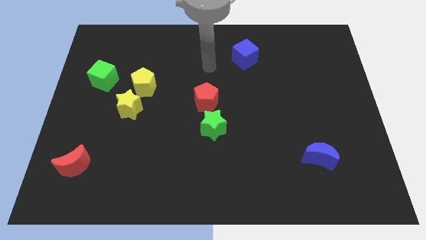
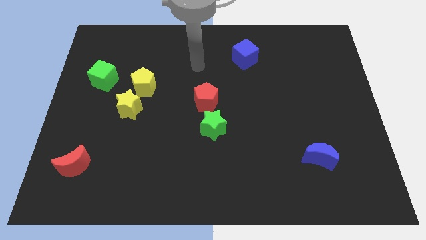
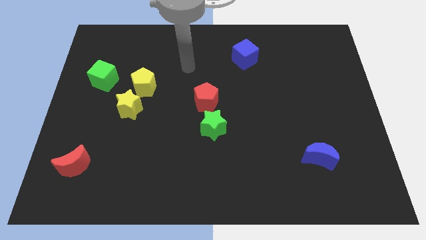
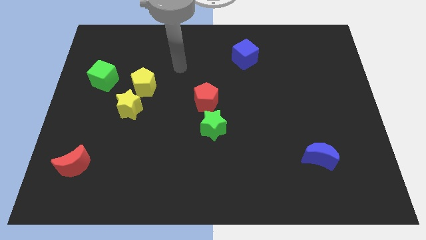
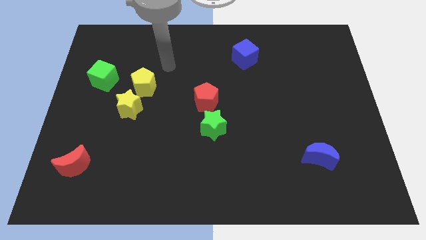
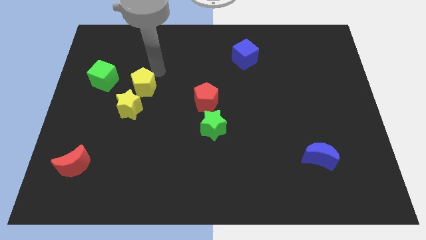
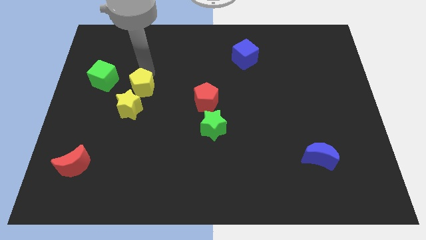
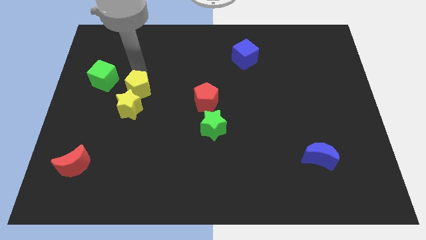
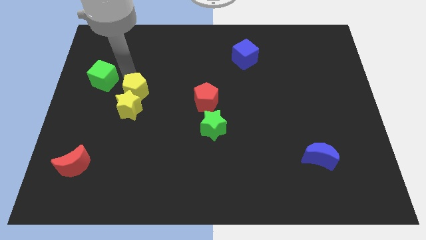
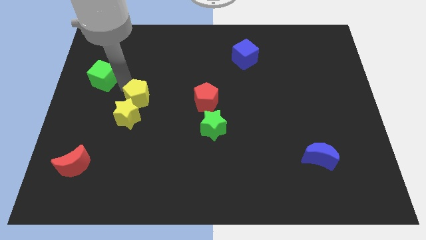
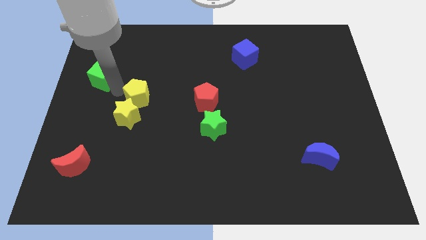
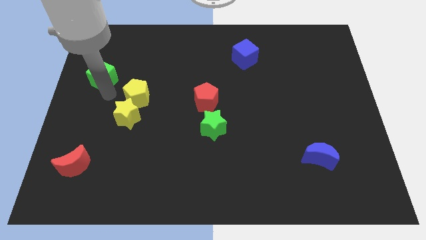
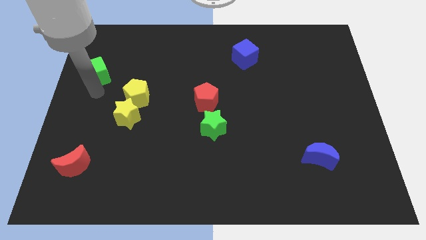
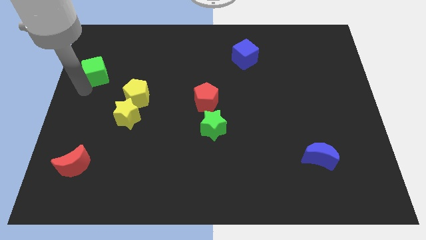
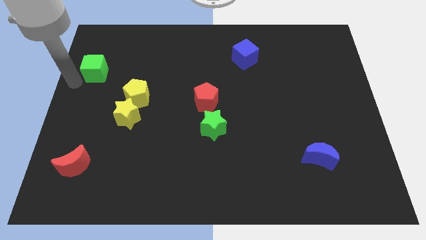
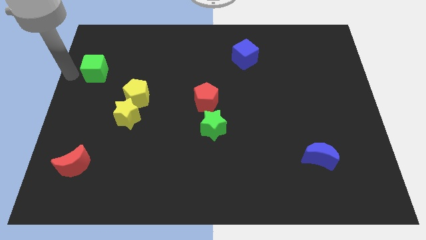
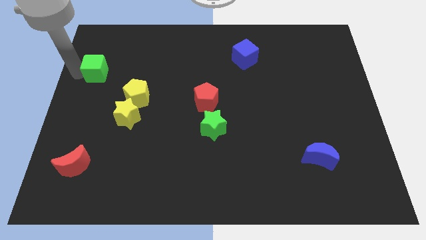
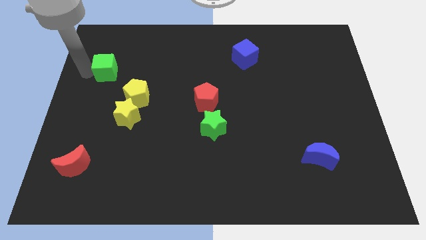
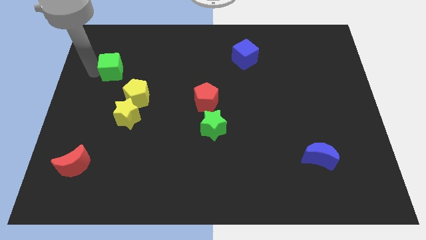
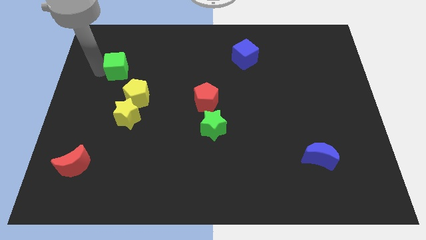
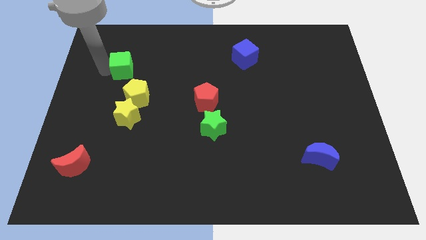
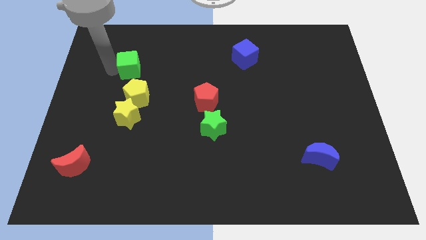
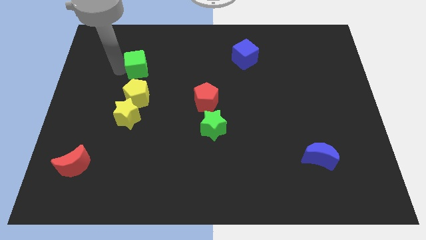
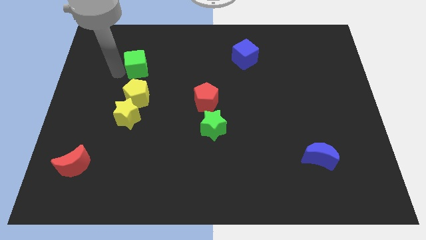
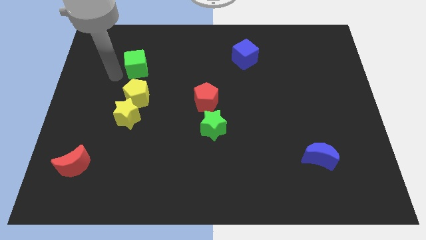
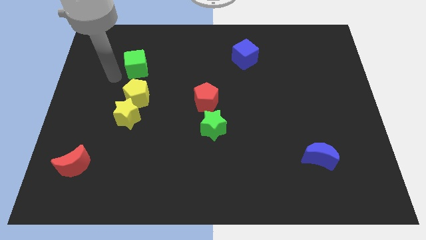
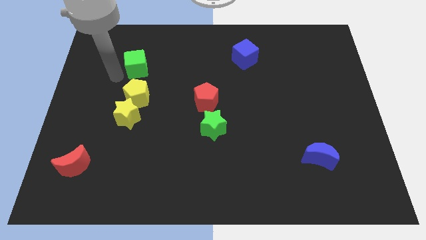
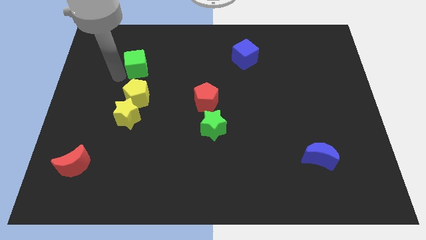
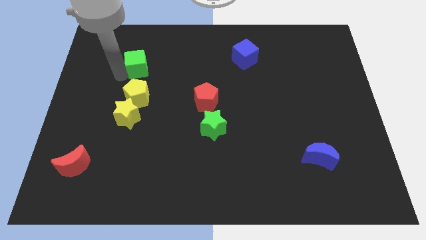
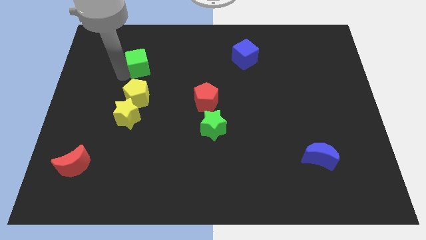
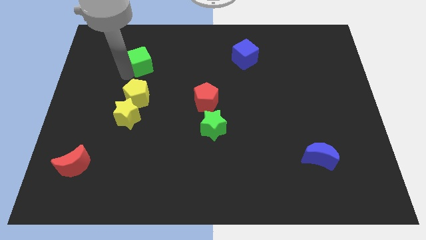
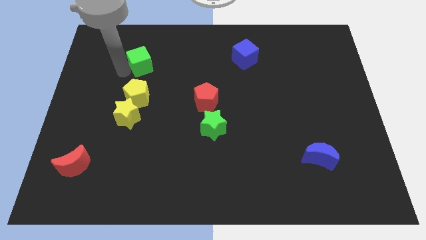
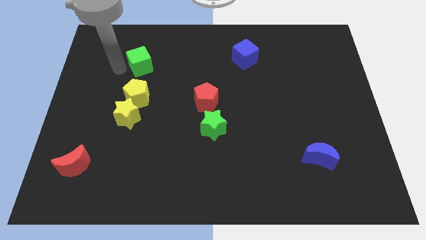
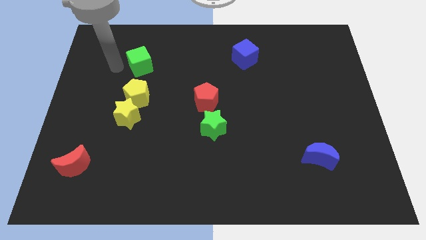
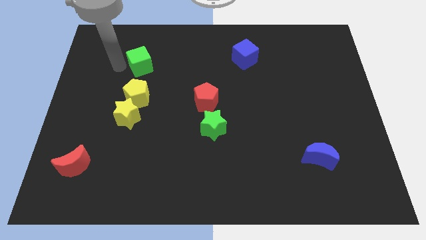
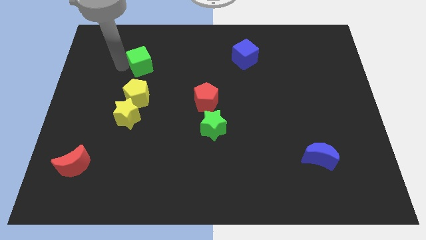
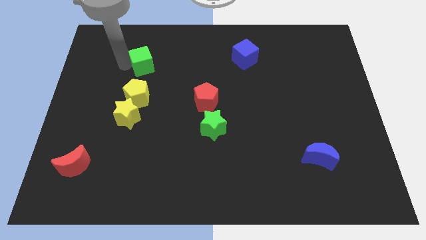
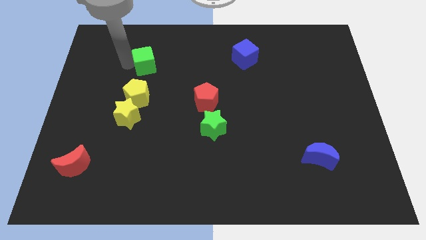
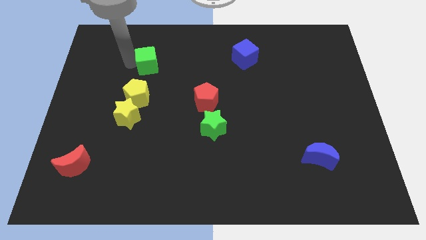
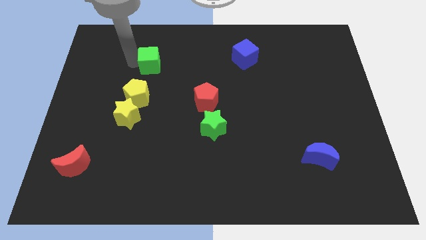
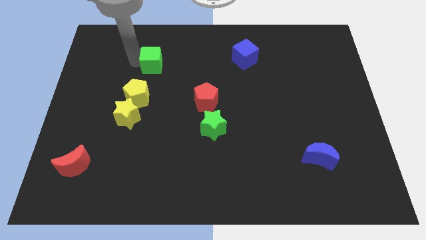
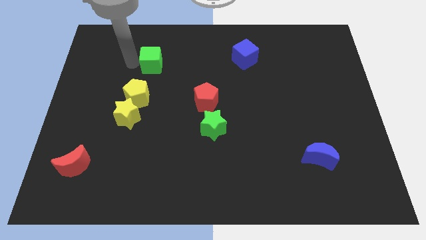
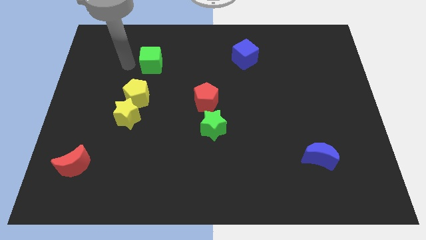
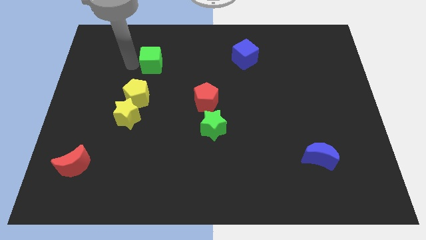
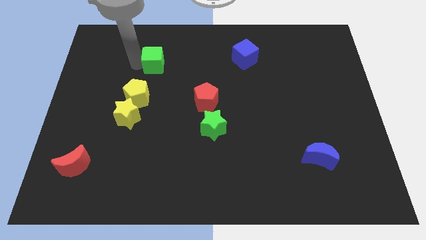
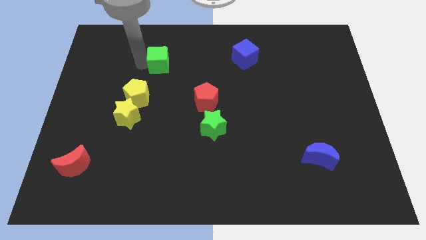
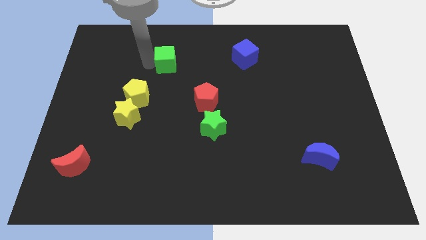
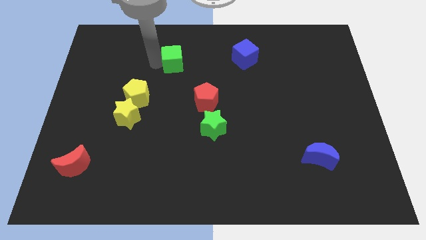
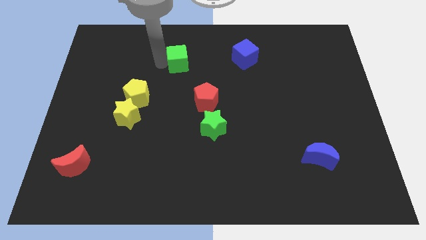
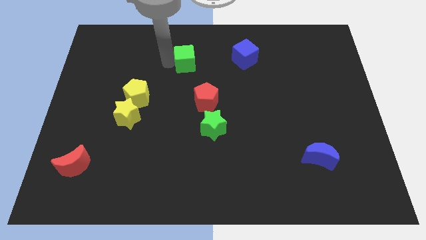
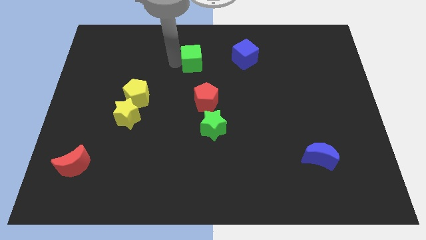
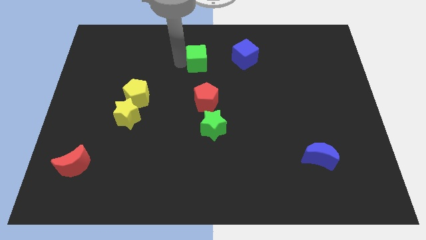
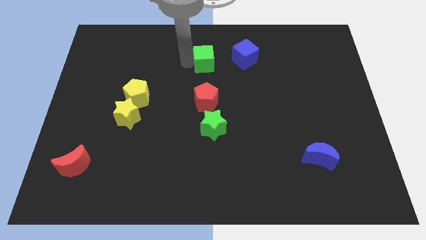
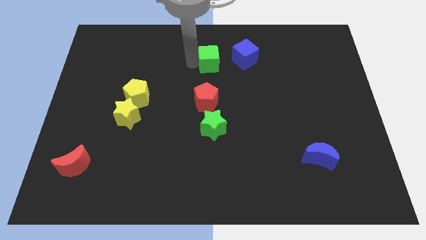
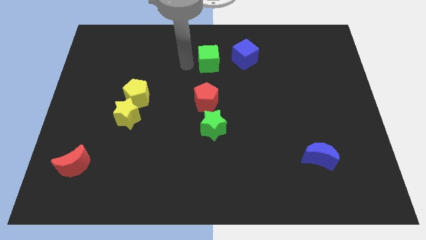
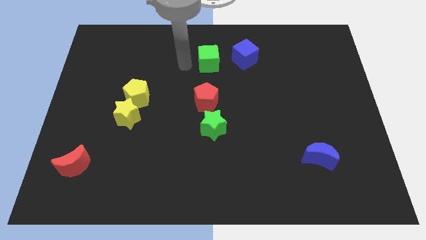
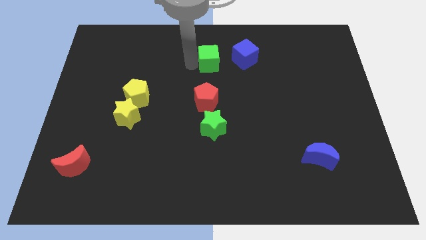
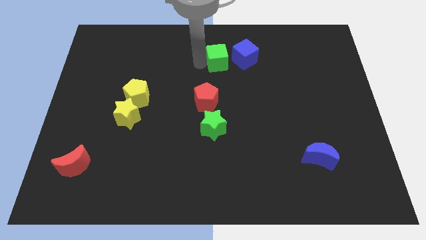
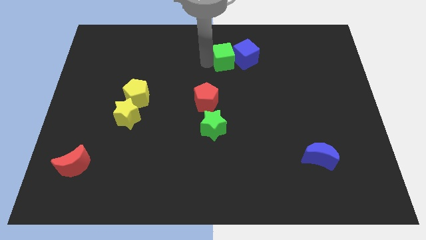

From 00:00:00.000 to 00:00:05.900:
move the green cube close to the blue cube

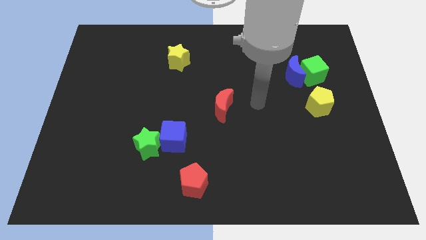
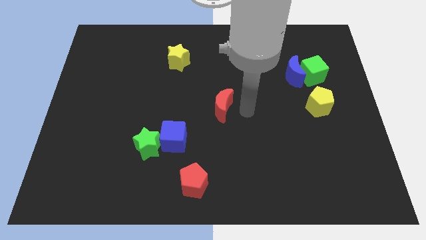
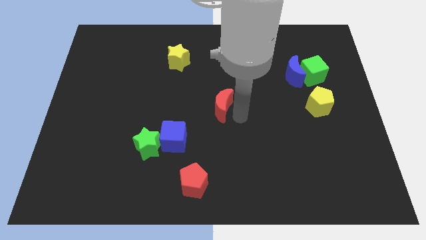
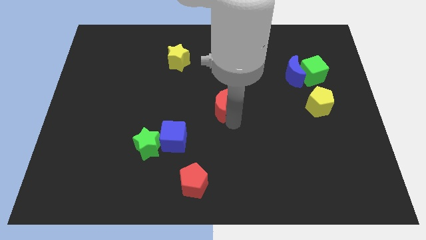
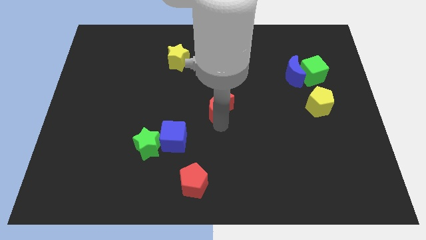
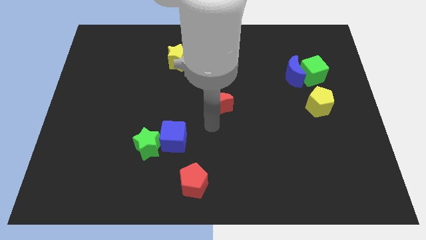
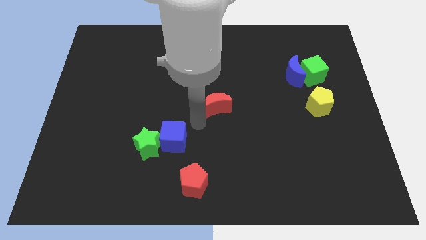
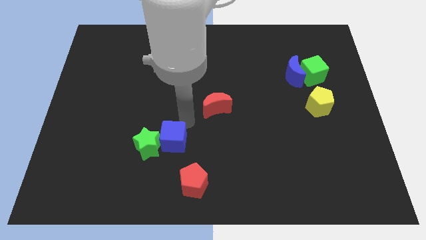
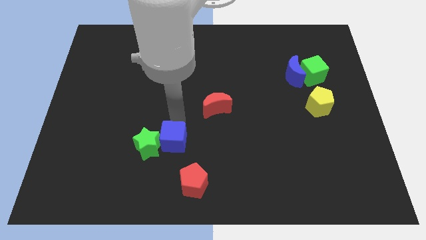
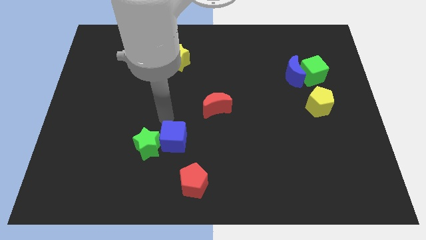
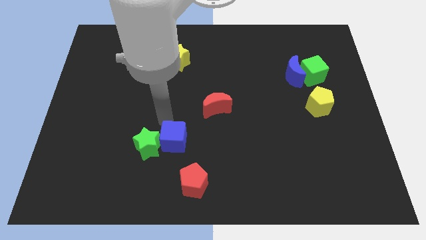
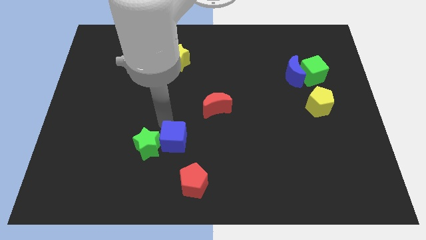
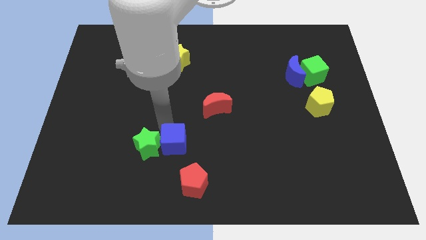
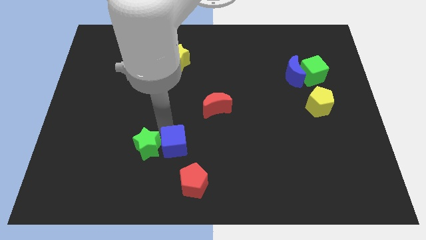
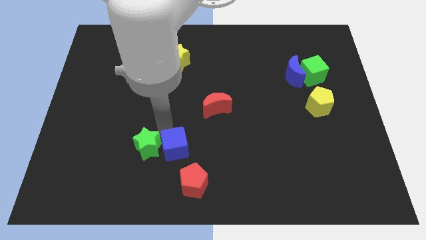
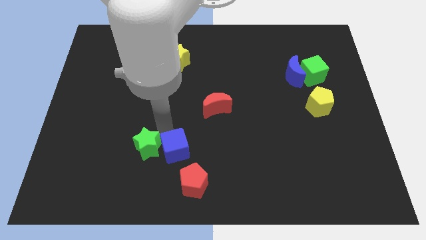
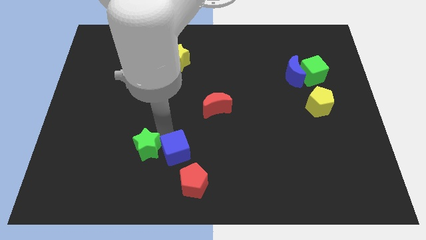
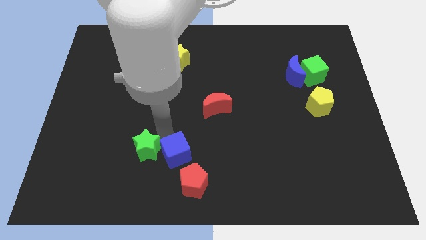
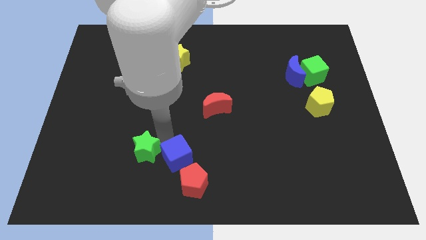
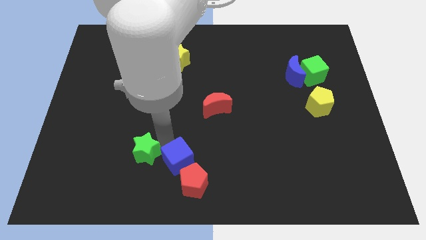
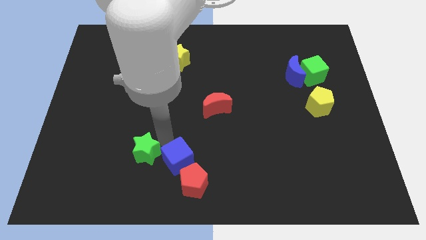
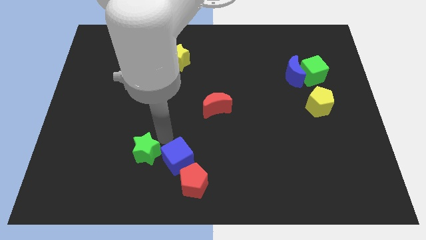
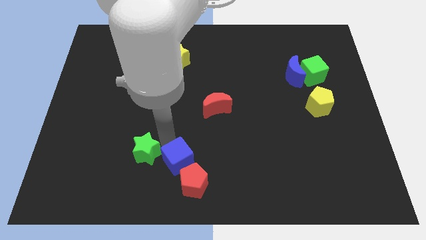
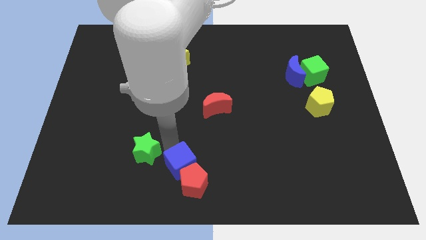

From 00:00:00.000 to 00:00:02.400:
put the blue cube next to the red pentagon
